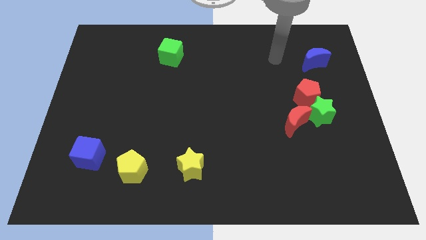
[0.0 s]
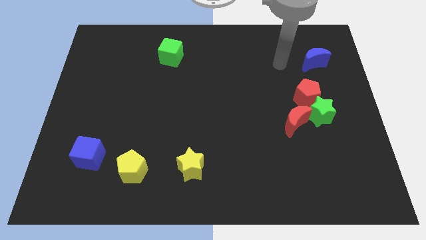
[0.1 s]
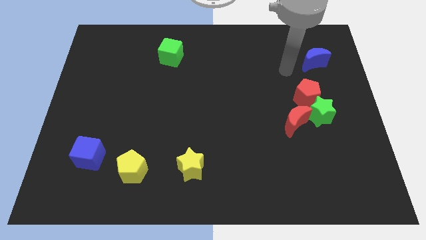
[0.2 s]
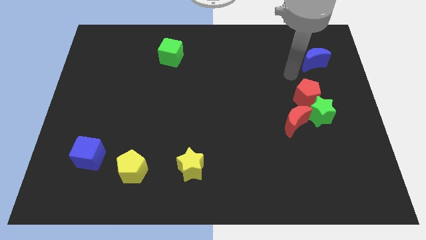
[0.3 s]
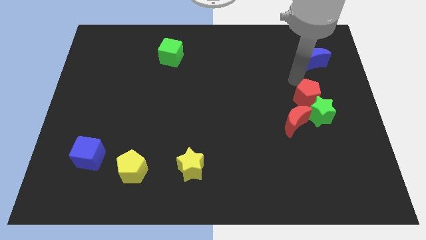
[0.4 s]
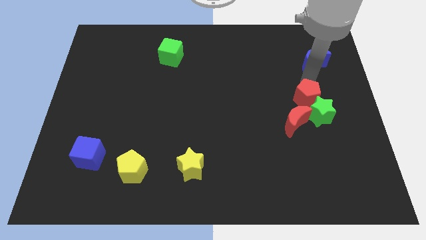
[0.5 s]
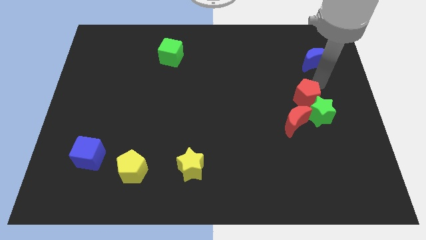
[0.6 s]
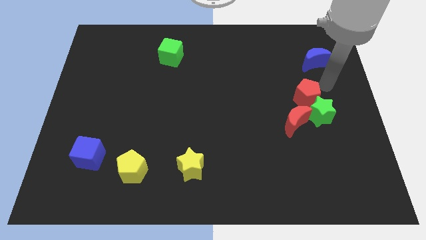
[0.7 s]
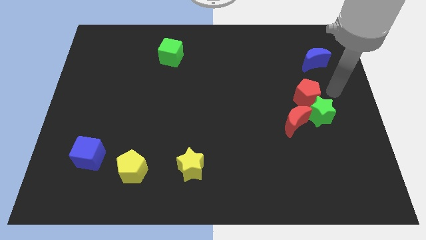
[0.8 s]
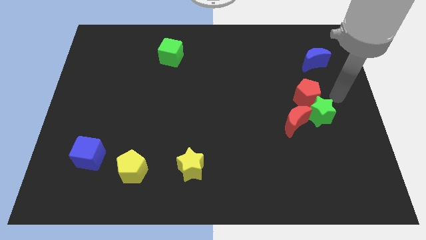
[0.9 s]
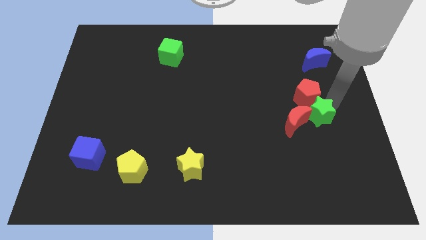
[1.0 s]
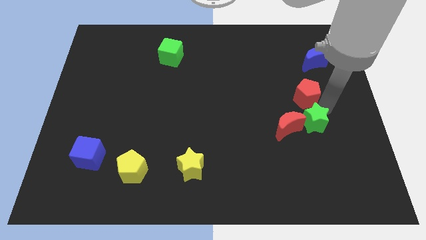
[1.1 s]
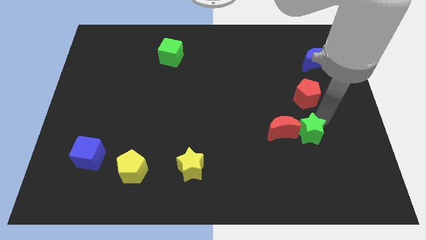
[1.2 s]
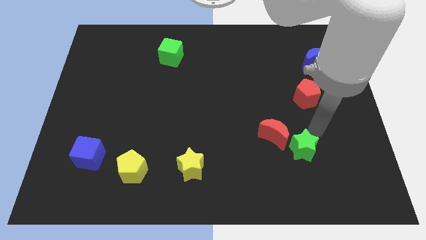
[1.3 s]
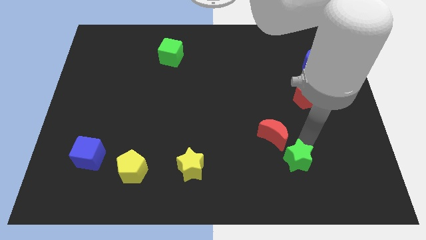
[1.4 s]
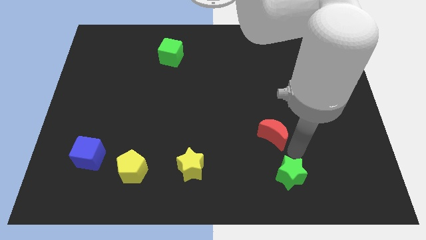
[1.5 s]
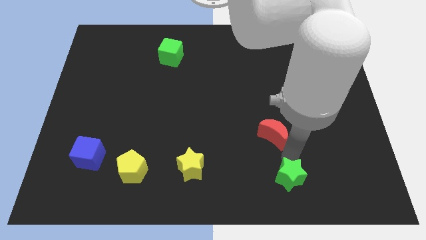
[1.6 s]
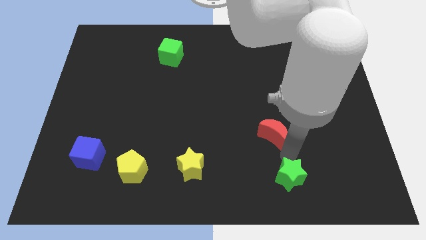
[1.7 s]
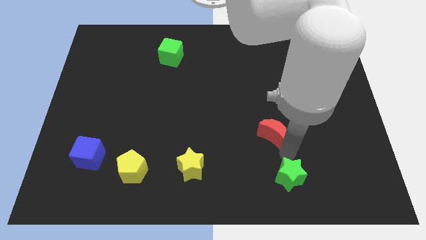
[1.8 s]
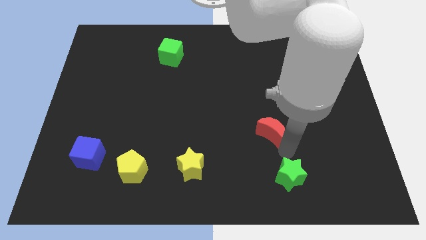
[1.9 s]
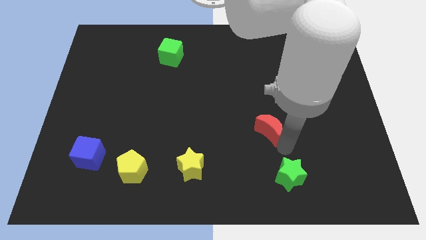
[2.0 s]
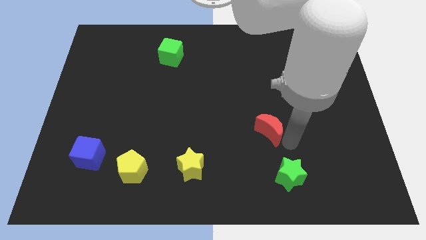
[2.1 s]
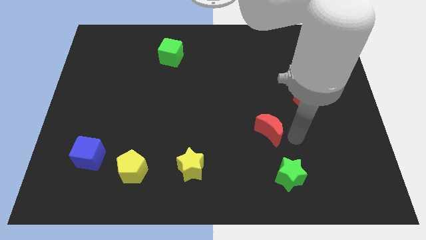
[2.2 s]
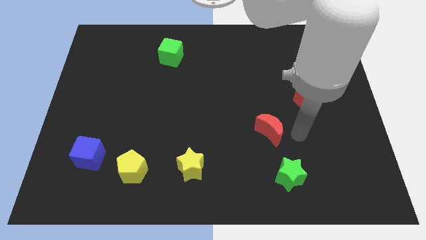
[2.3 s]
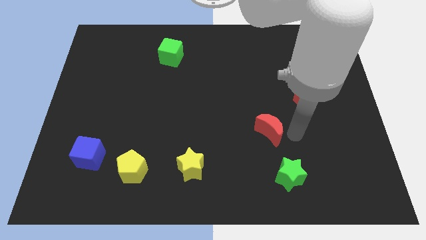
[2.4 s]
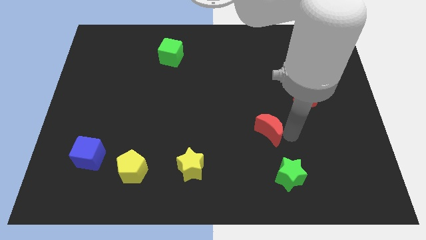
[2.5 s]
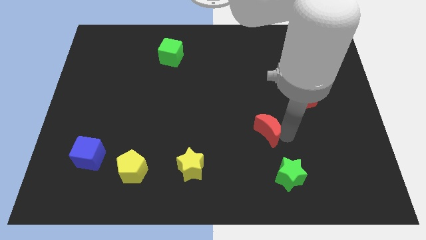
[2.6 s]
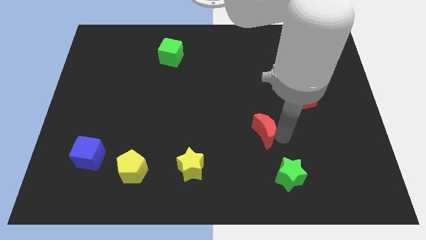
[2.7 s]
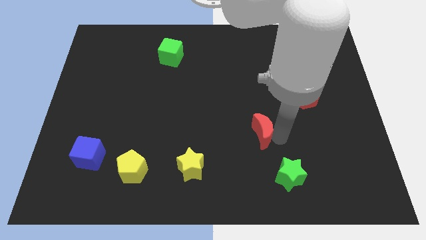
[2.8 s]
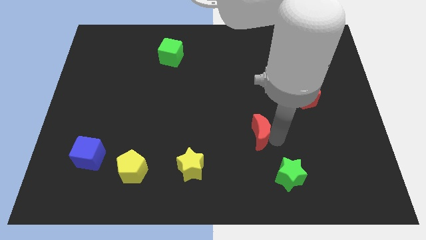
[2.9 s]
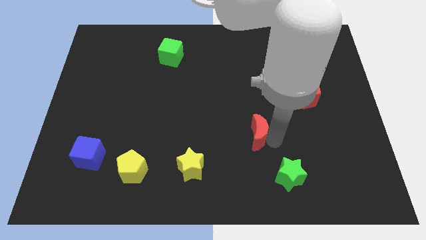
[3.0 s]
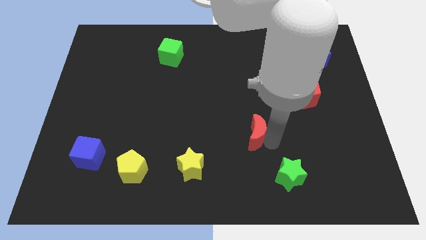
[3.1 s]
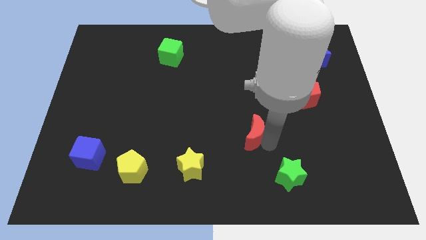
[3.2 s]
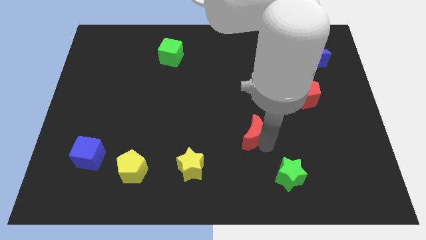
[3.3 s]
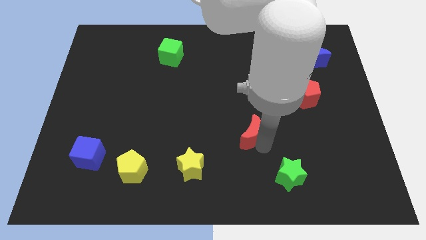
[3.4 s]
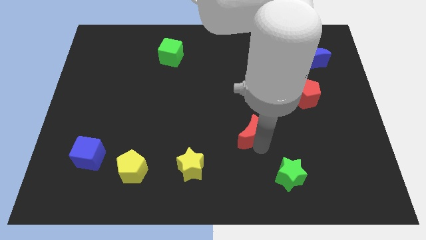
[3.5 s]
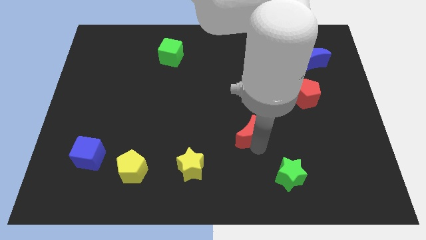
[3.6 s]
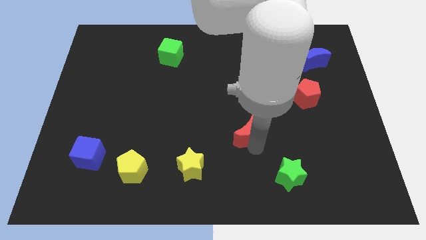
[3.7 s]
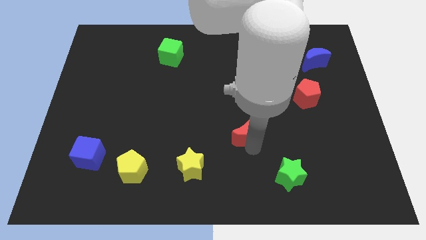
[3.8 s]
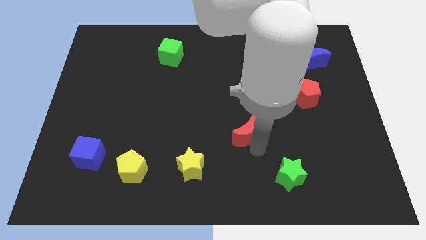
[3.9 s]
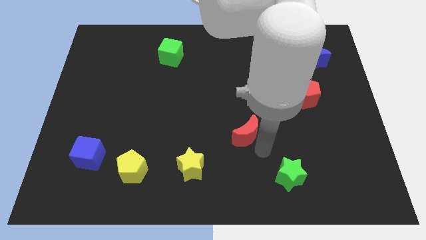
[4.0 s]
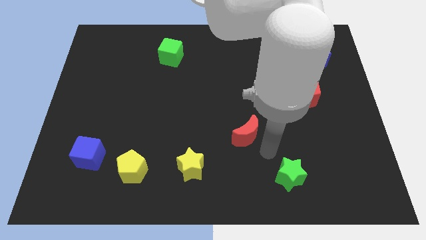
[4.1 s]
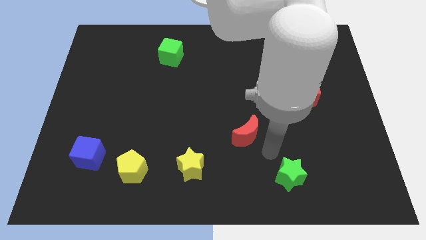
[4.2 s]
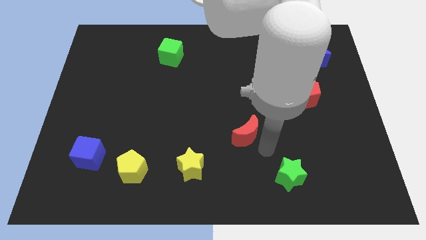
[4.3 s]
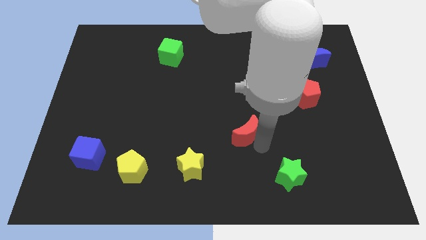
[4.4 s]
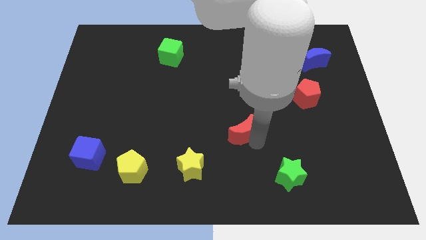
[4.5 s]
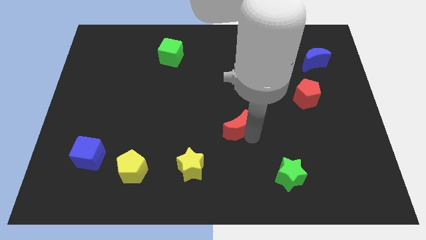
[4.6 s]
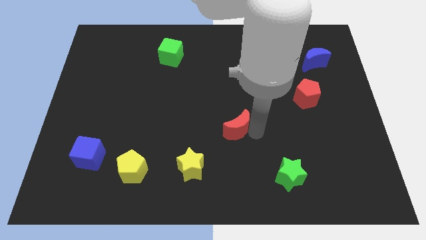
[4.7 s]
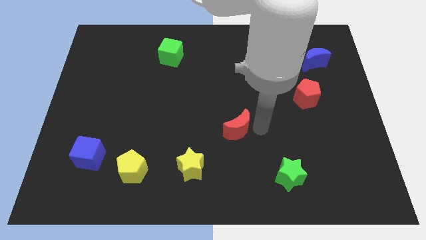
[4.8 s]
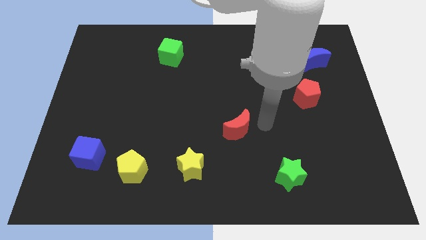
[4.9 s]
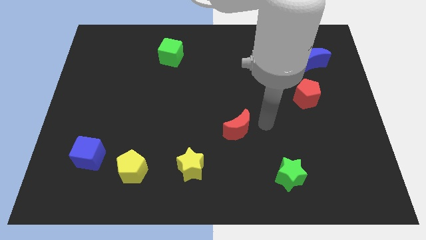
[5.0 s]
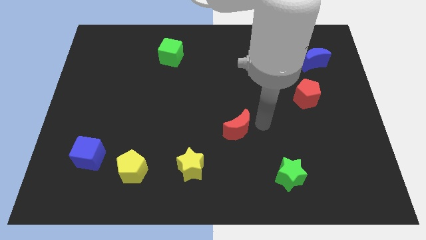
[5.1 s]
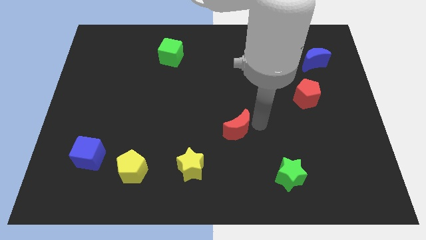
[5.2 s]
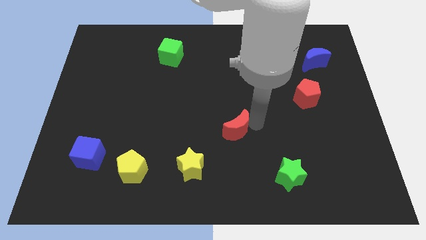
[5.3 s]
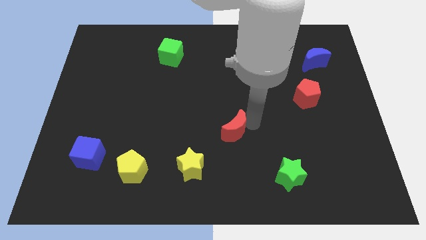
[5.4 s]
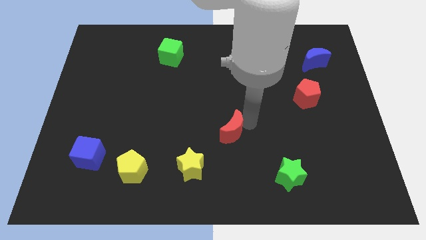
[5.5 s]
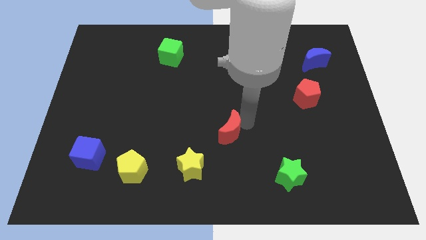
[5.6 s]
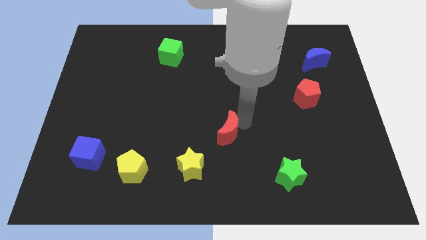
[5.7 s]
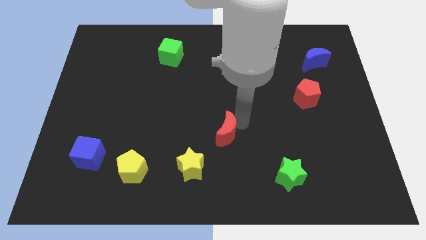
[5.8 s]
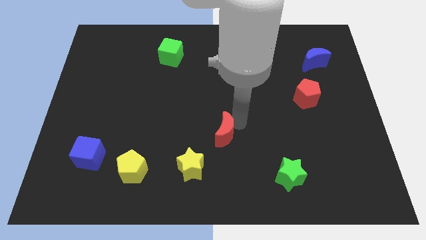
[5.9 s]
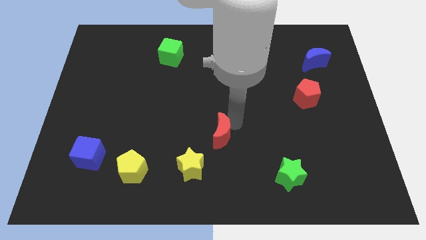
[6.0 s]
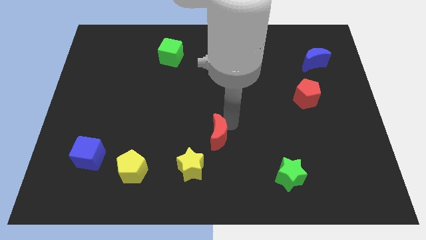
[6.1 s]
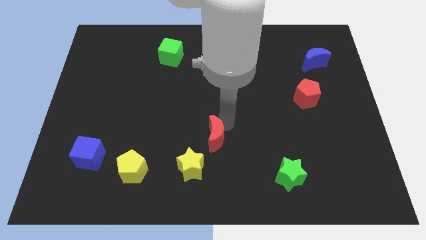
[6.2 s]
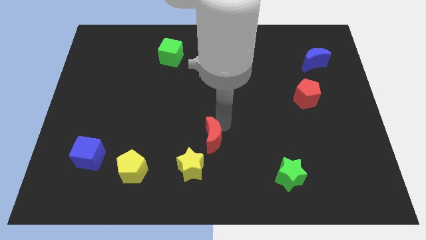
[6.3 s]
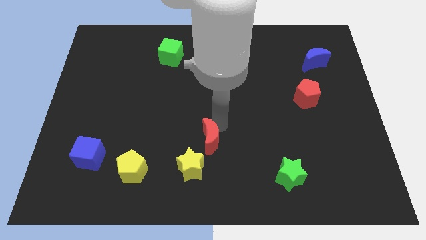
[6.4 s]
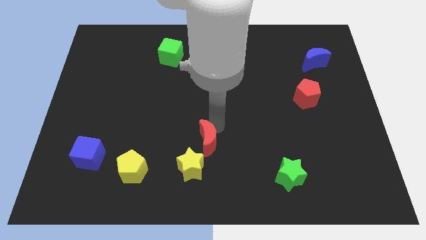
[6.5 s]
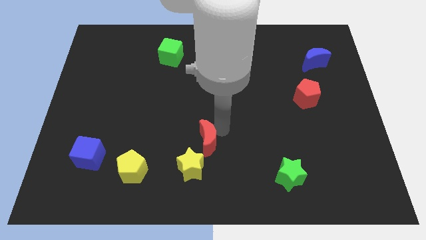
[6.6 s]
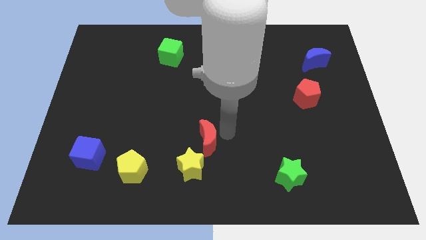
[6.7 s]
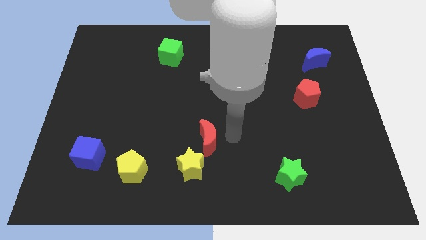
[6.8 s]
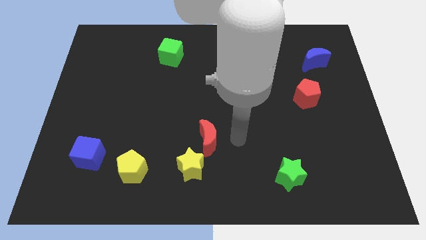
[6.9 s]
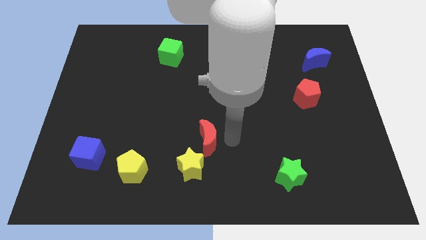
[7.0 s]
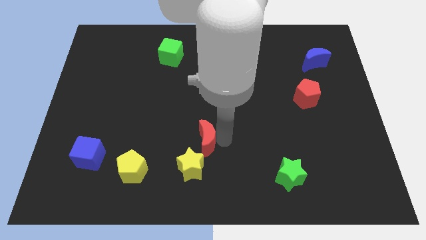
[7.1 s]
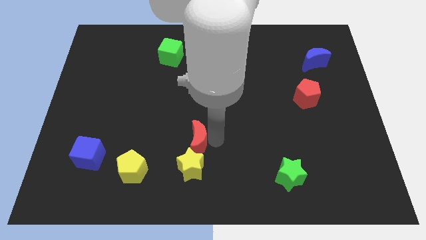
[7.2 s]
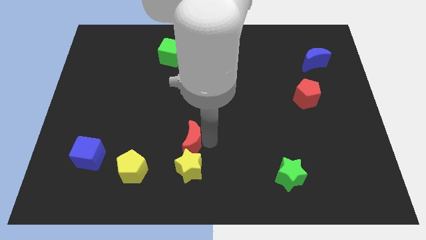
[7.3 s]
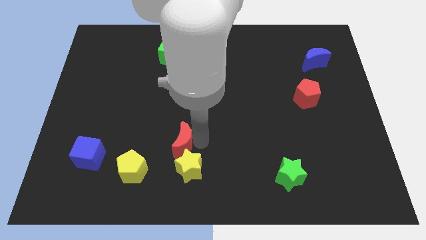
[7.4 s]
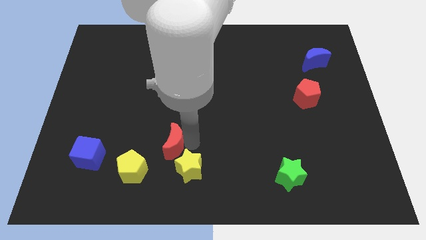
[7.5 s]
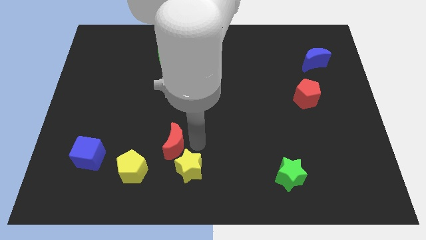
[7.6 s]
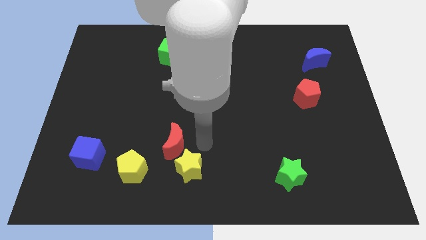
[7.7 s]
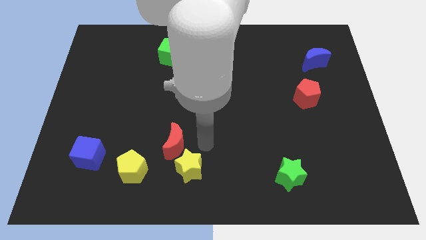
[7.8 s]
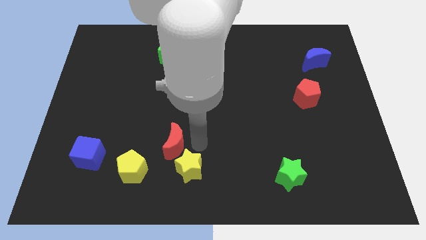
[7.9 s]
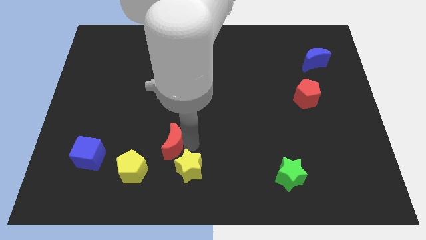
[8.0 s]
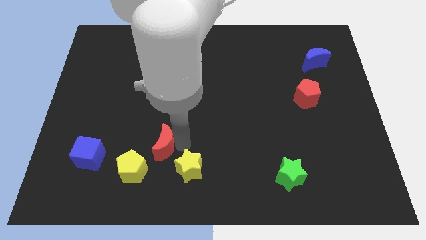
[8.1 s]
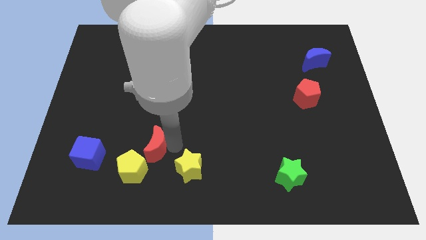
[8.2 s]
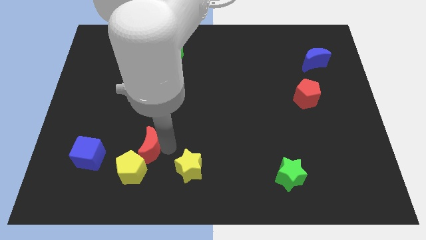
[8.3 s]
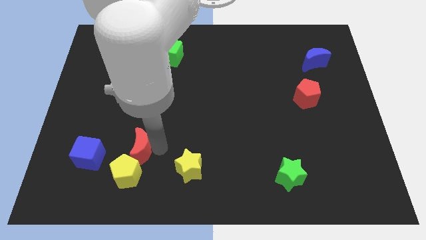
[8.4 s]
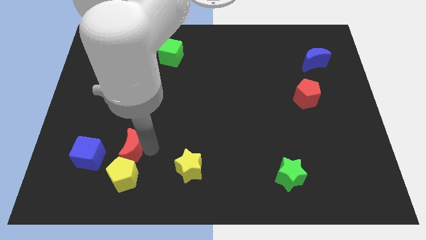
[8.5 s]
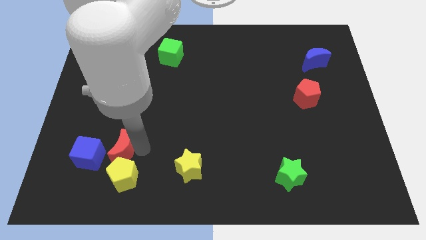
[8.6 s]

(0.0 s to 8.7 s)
slide the red moon to the top left side of the yellow pentagon
